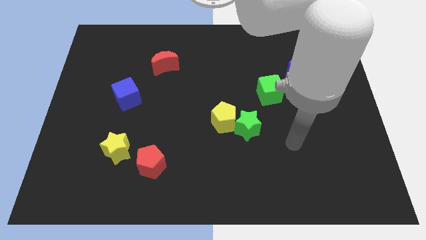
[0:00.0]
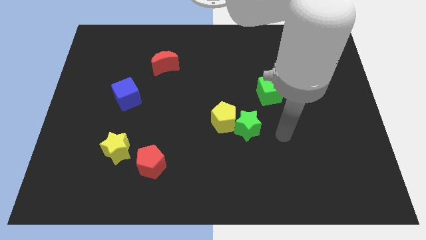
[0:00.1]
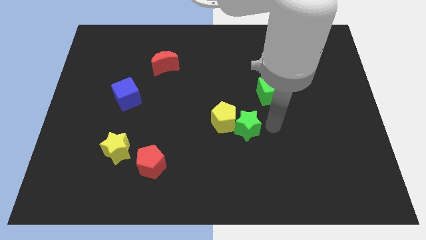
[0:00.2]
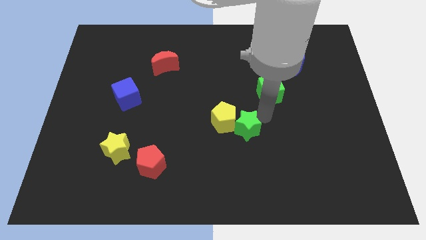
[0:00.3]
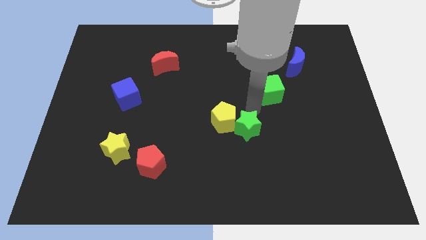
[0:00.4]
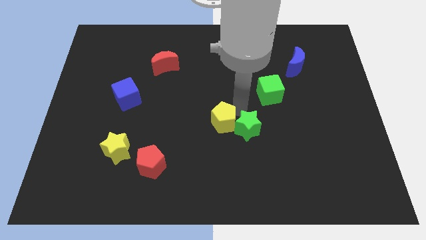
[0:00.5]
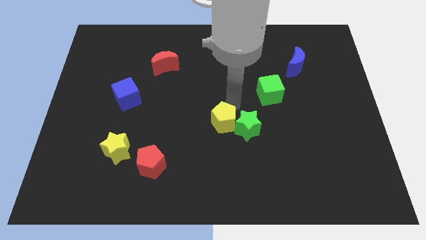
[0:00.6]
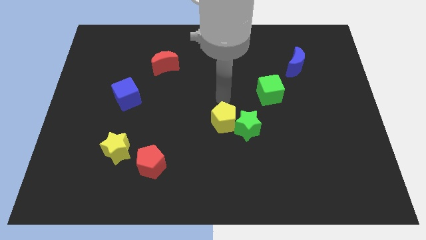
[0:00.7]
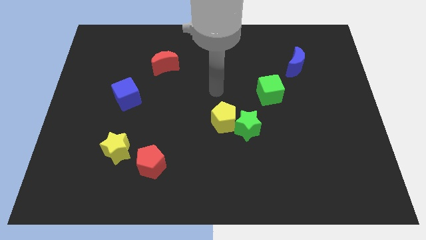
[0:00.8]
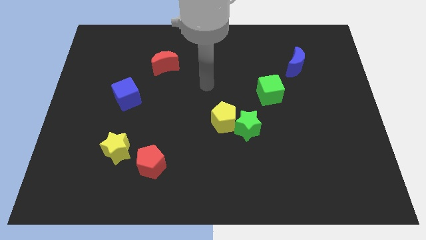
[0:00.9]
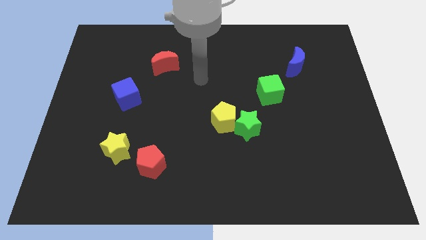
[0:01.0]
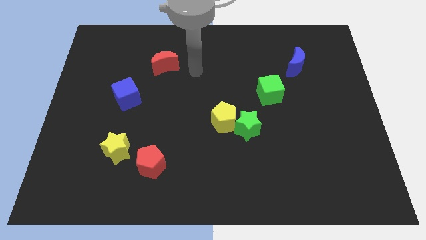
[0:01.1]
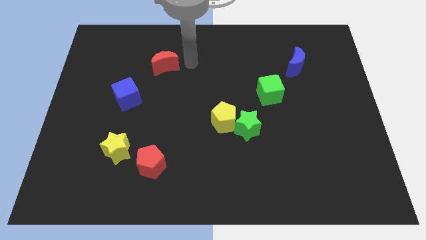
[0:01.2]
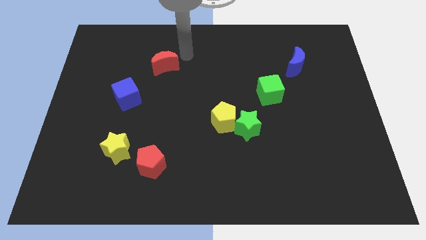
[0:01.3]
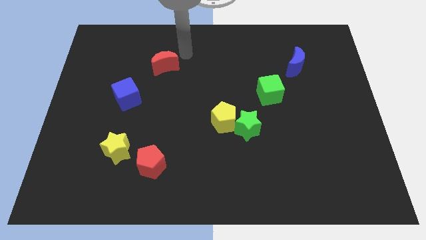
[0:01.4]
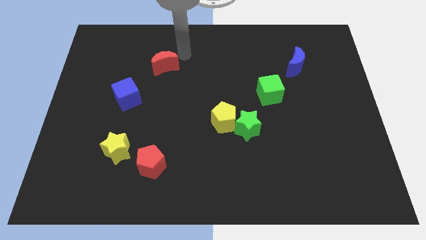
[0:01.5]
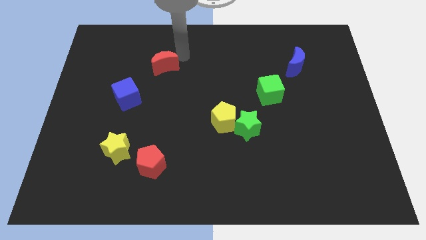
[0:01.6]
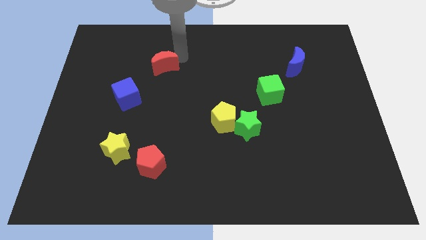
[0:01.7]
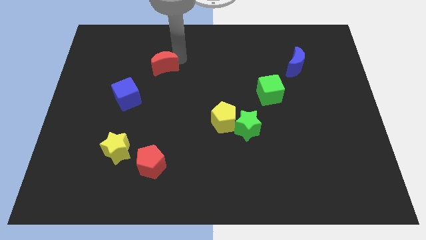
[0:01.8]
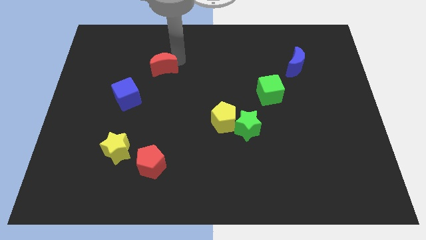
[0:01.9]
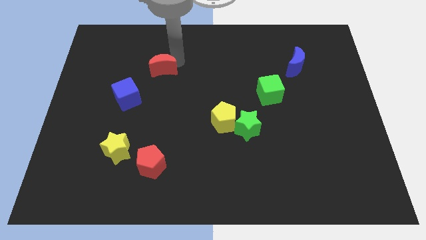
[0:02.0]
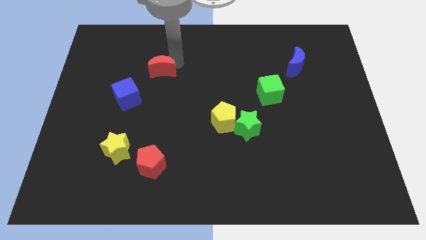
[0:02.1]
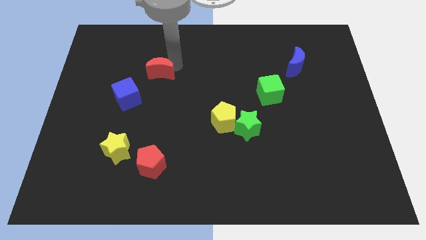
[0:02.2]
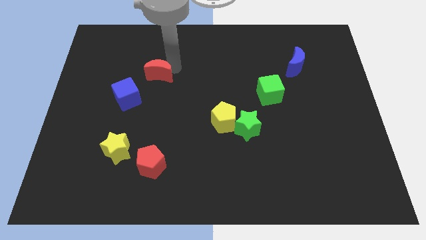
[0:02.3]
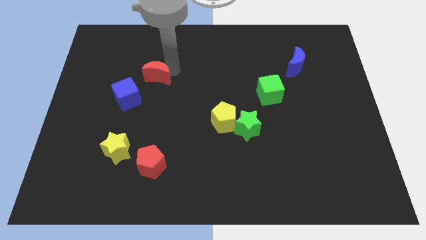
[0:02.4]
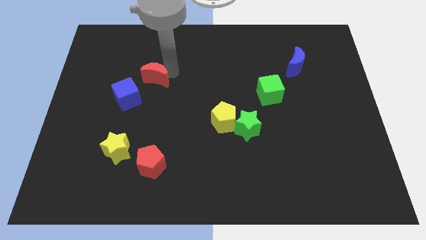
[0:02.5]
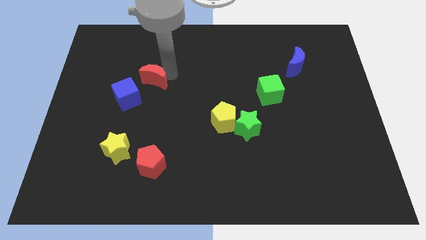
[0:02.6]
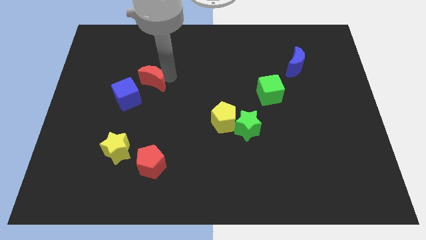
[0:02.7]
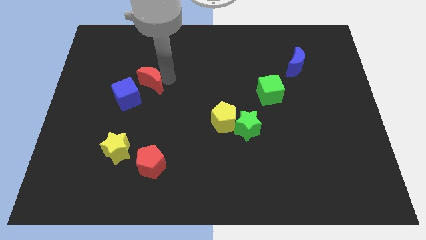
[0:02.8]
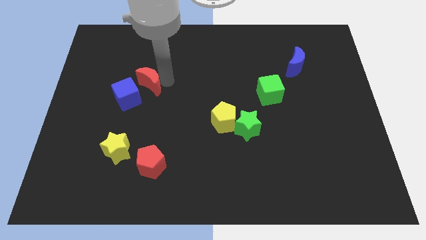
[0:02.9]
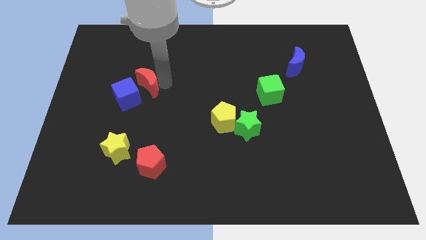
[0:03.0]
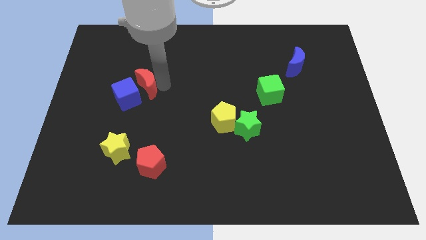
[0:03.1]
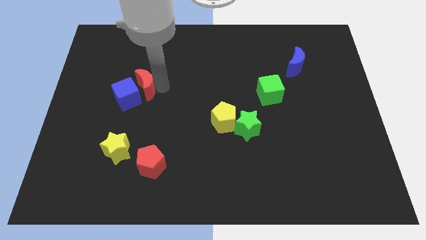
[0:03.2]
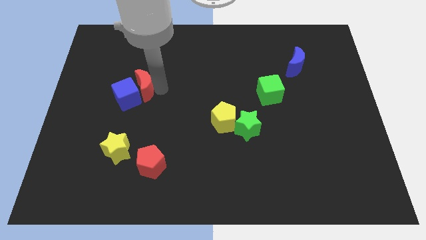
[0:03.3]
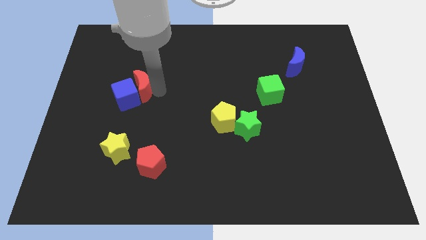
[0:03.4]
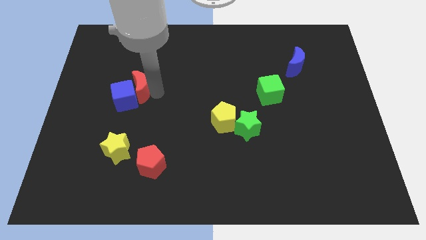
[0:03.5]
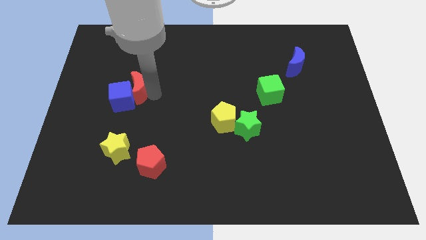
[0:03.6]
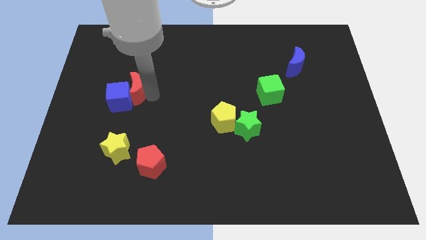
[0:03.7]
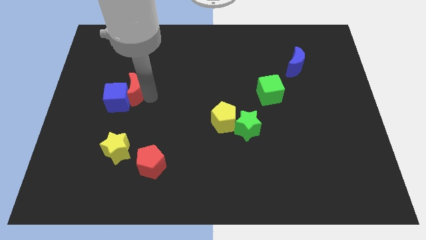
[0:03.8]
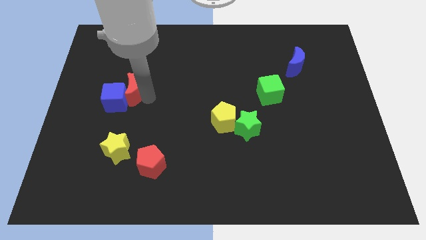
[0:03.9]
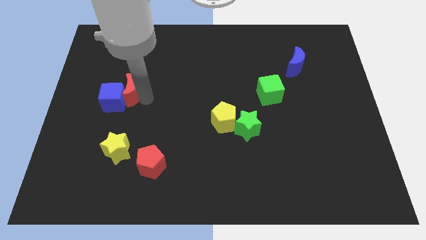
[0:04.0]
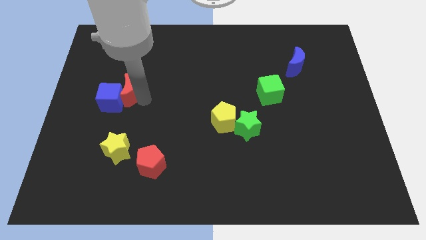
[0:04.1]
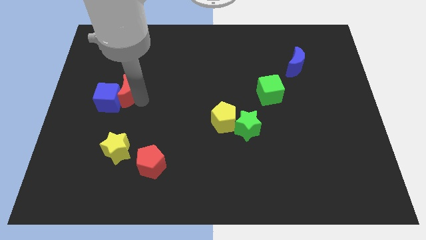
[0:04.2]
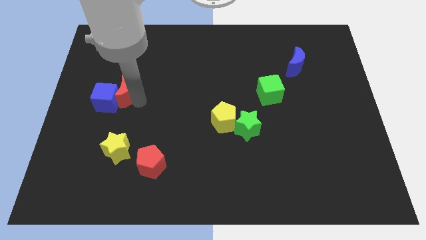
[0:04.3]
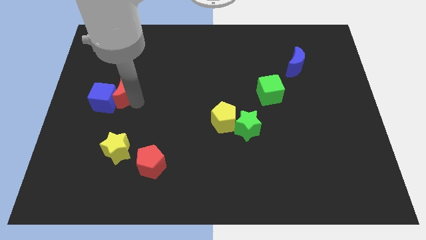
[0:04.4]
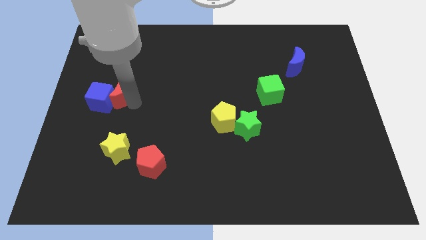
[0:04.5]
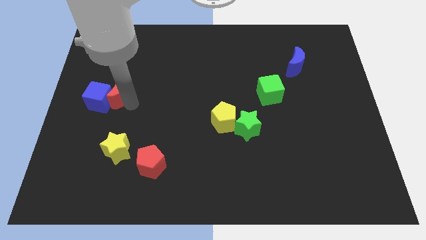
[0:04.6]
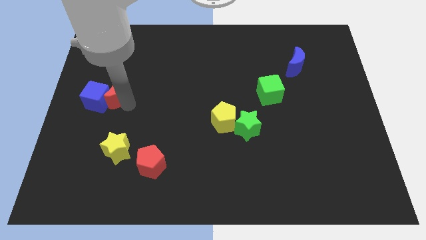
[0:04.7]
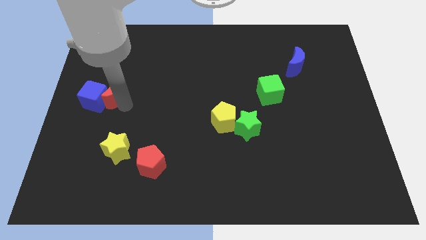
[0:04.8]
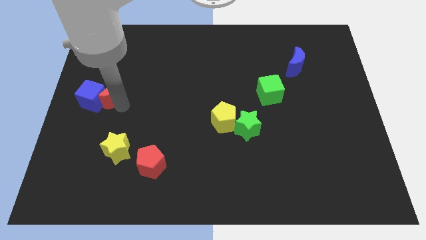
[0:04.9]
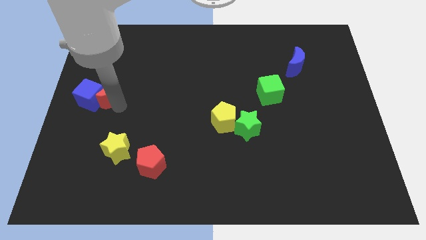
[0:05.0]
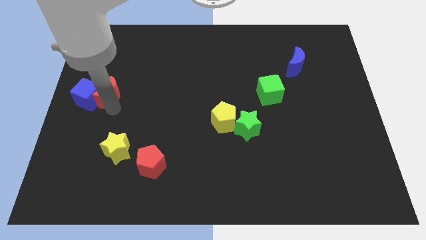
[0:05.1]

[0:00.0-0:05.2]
slide the red moon to the center left

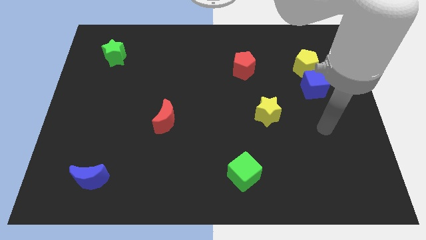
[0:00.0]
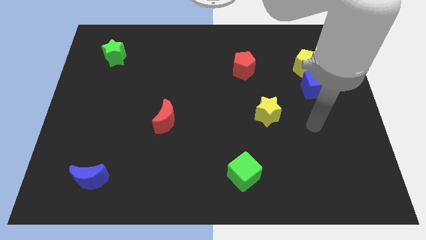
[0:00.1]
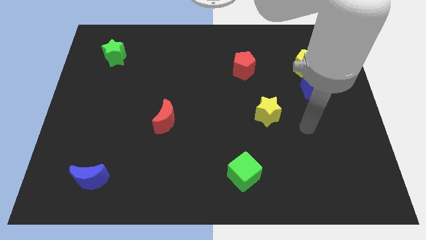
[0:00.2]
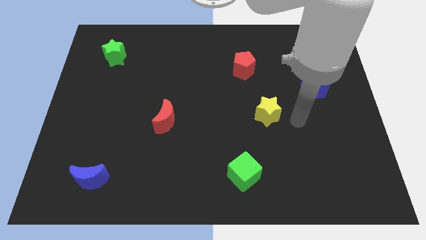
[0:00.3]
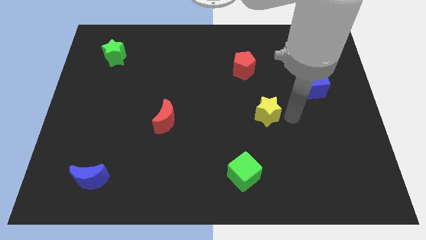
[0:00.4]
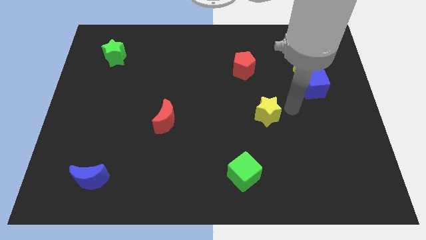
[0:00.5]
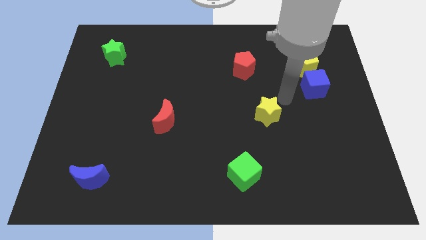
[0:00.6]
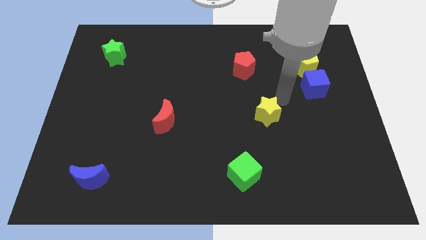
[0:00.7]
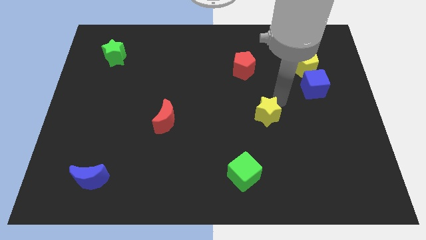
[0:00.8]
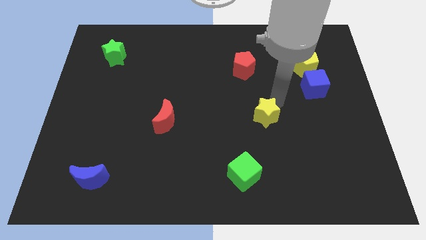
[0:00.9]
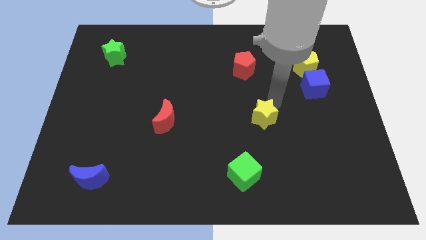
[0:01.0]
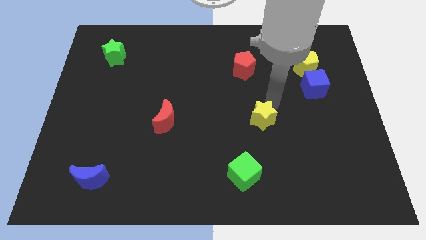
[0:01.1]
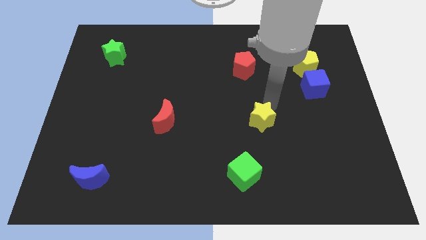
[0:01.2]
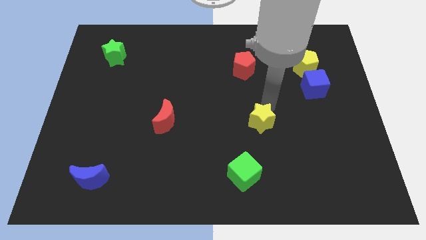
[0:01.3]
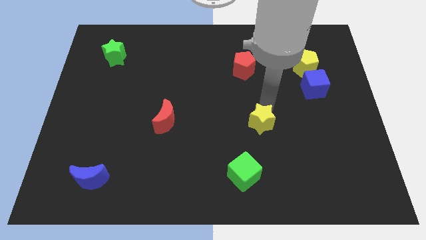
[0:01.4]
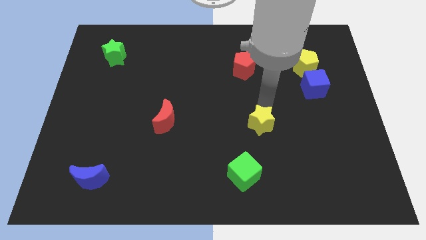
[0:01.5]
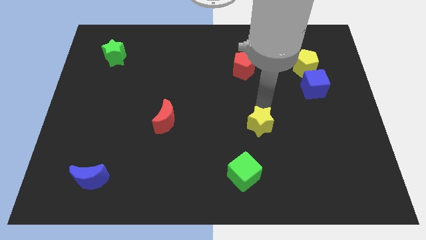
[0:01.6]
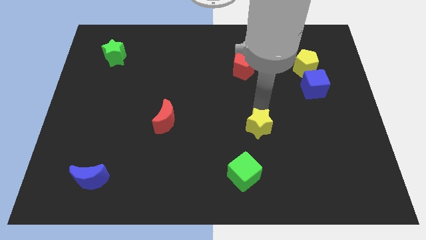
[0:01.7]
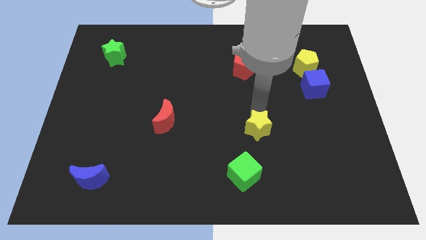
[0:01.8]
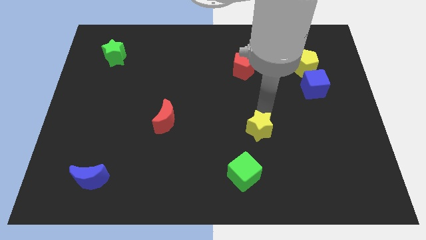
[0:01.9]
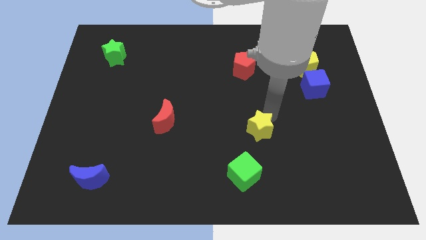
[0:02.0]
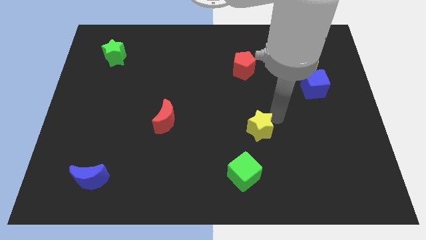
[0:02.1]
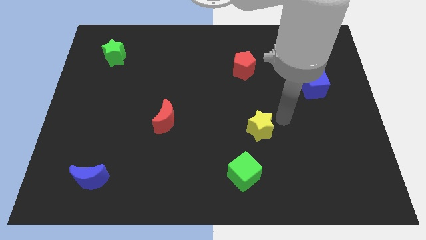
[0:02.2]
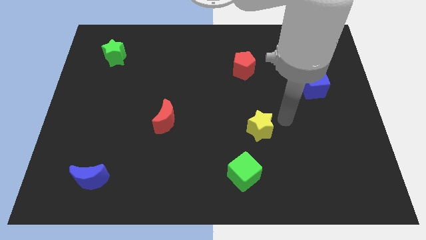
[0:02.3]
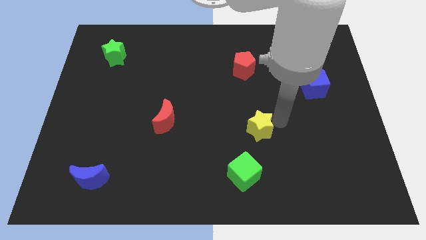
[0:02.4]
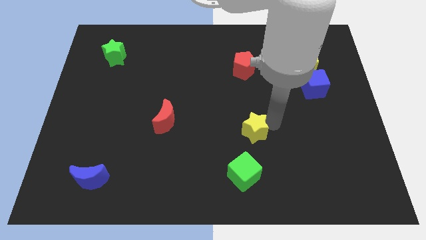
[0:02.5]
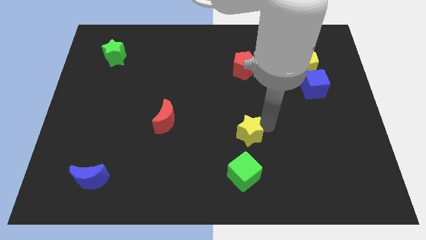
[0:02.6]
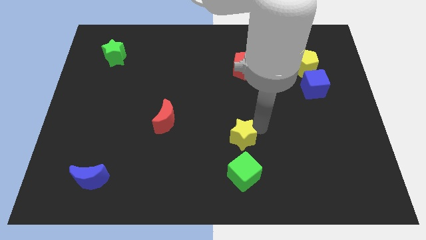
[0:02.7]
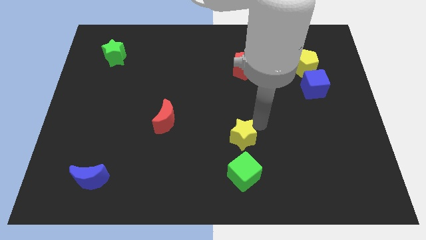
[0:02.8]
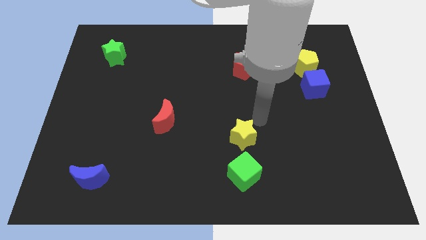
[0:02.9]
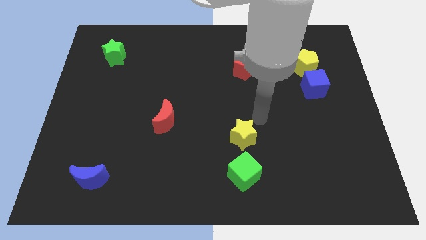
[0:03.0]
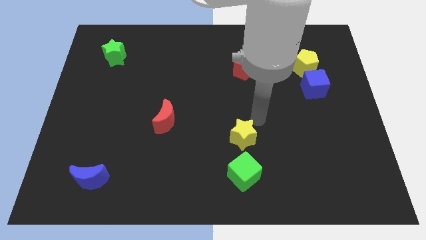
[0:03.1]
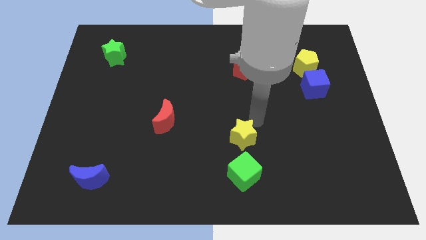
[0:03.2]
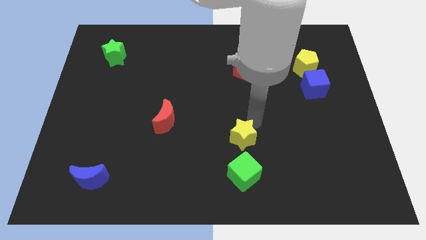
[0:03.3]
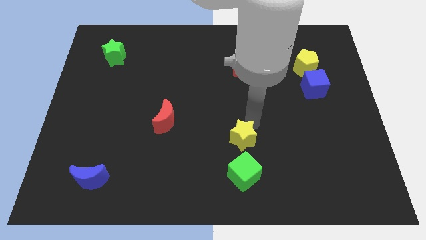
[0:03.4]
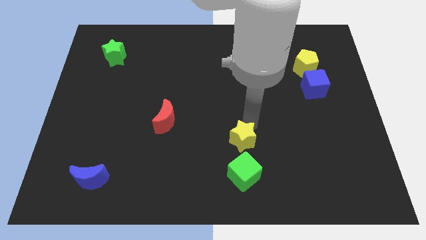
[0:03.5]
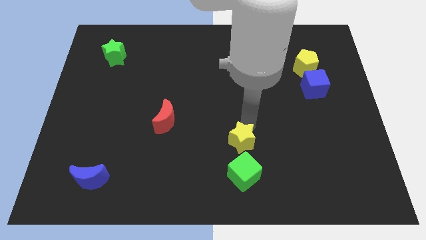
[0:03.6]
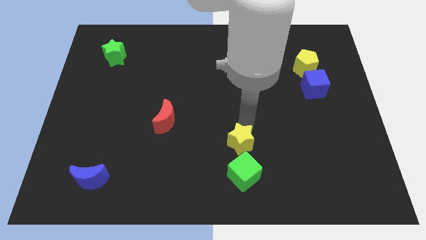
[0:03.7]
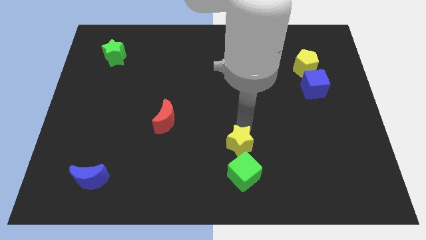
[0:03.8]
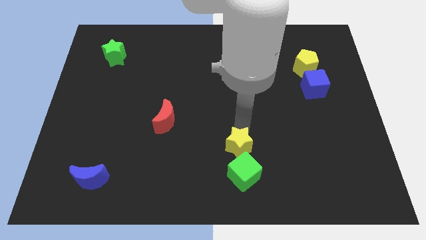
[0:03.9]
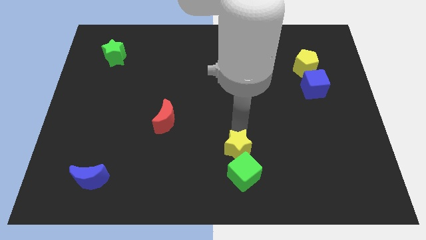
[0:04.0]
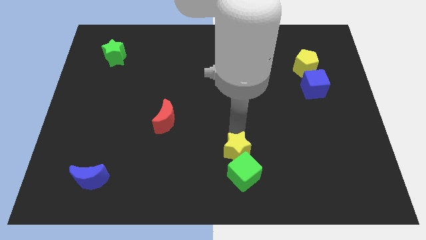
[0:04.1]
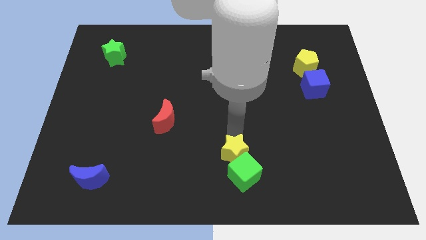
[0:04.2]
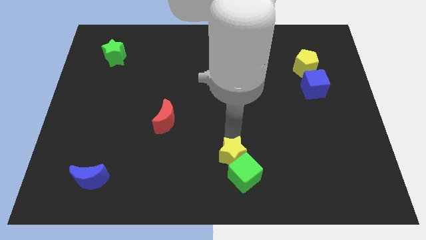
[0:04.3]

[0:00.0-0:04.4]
slide the yellow star to the bottom side
